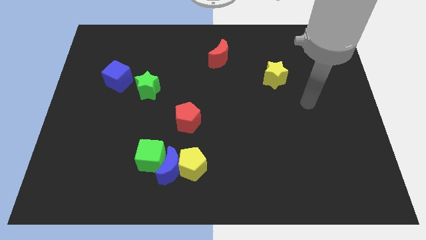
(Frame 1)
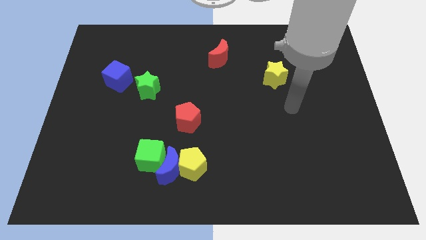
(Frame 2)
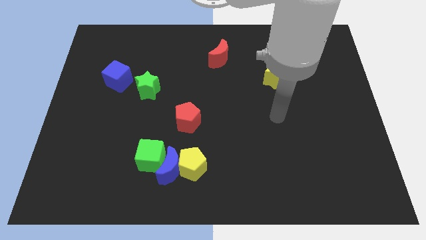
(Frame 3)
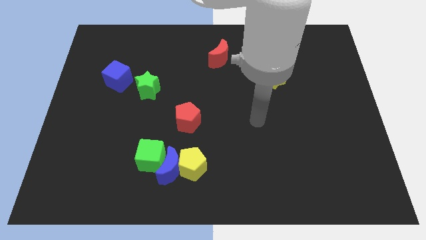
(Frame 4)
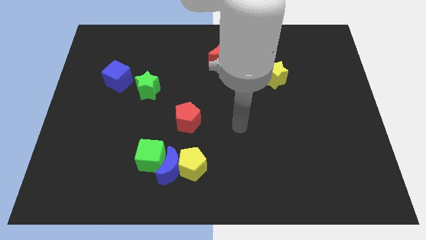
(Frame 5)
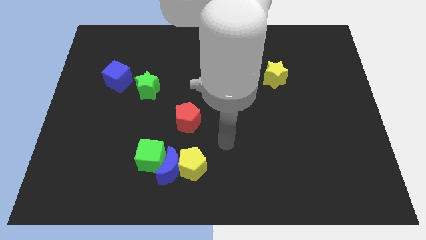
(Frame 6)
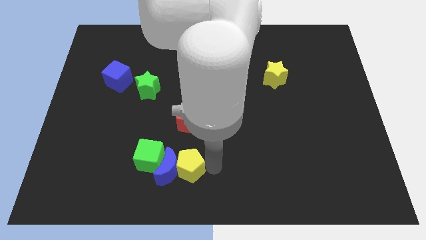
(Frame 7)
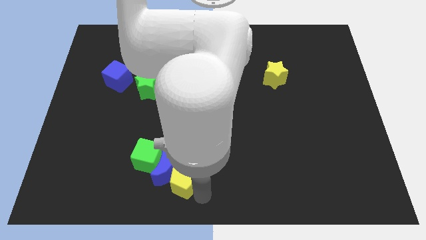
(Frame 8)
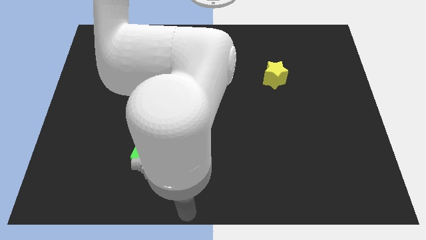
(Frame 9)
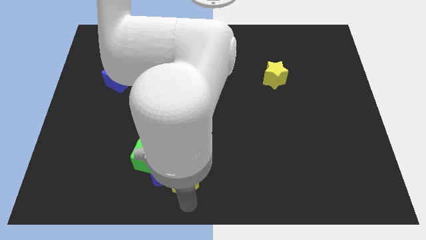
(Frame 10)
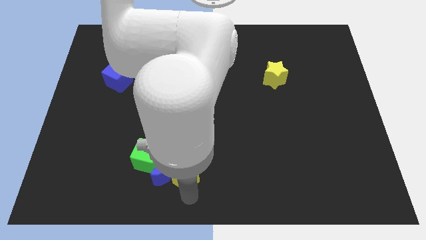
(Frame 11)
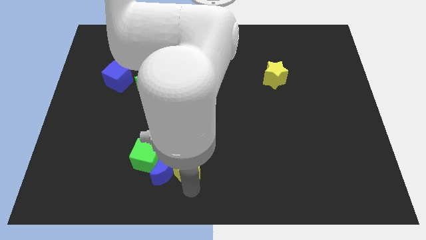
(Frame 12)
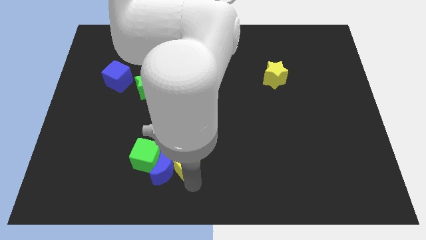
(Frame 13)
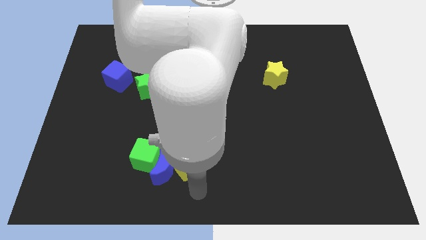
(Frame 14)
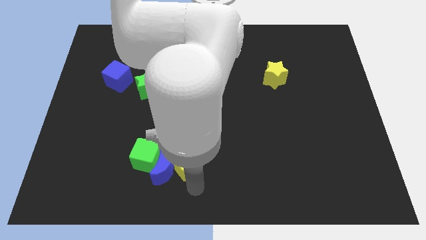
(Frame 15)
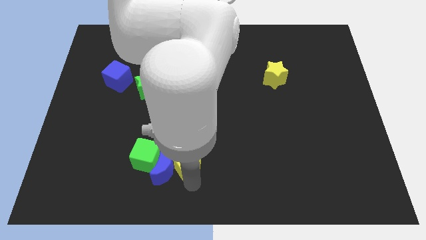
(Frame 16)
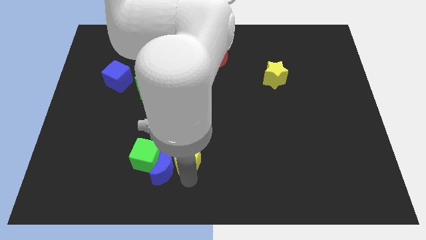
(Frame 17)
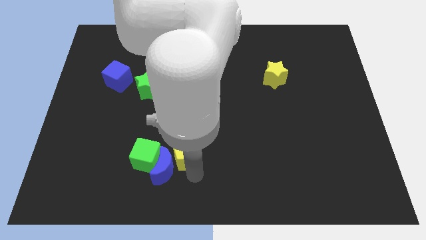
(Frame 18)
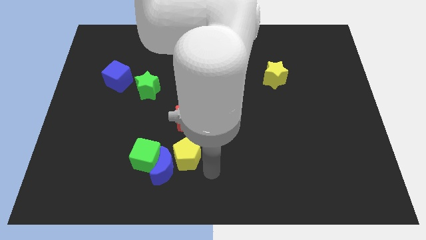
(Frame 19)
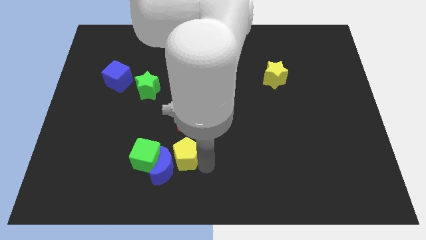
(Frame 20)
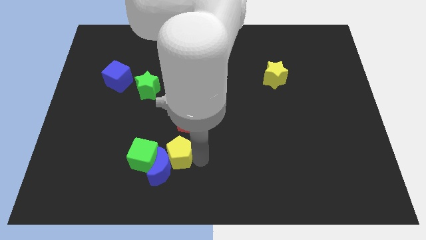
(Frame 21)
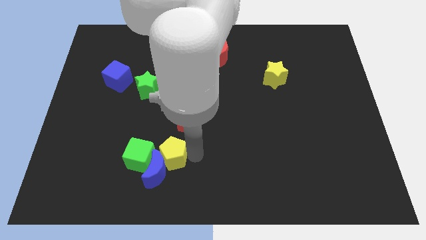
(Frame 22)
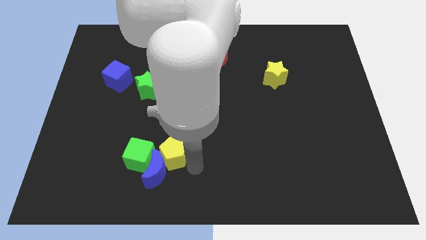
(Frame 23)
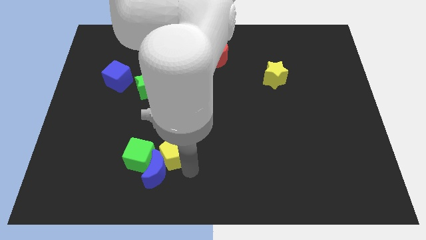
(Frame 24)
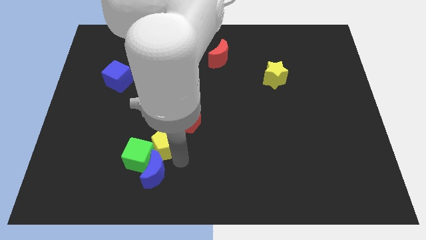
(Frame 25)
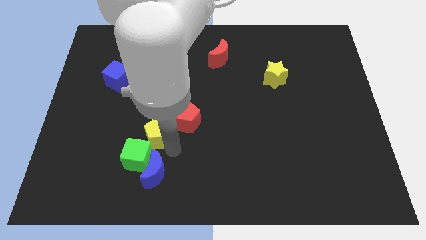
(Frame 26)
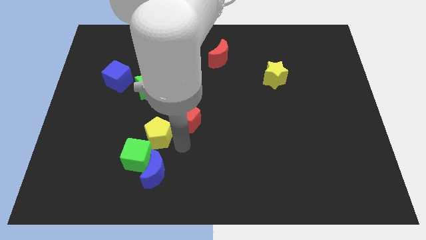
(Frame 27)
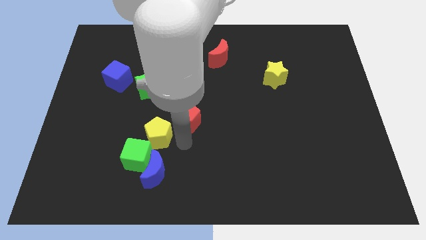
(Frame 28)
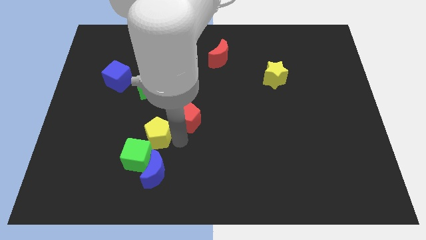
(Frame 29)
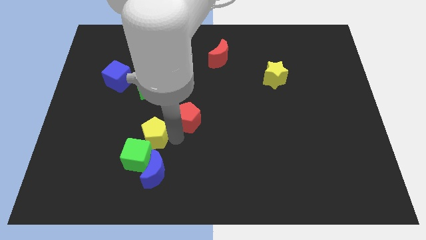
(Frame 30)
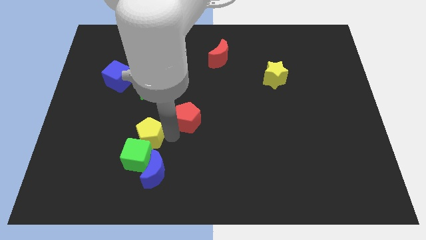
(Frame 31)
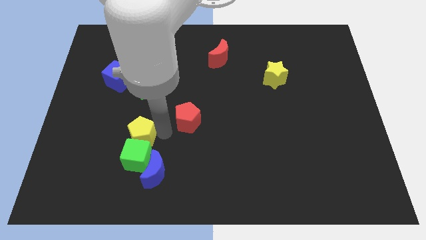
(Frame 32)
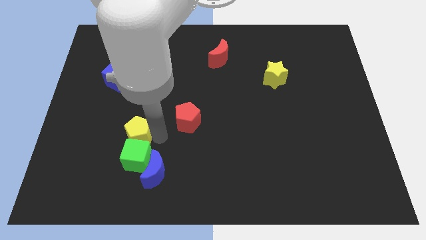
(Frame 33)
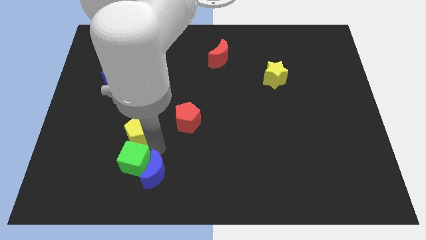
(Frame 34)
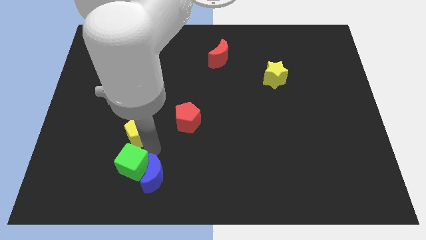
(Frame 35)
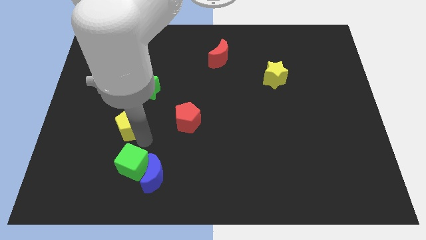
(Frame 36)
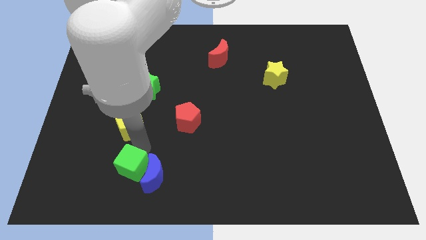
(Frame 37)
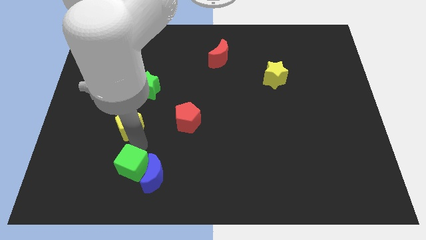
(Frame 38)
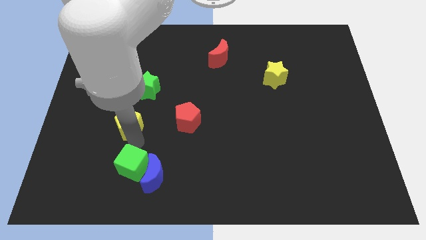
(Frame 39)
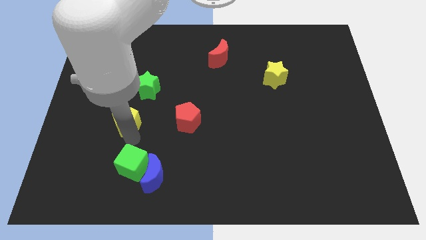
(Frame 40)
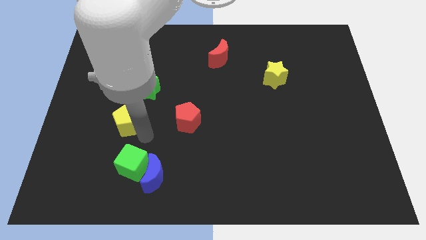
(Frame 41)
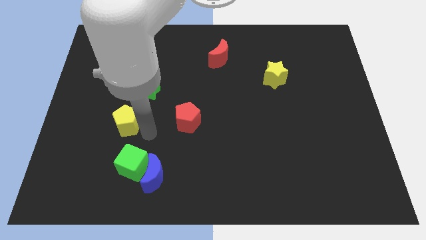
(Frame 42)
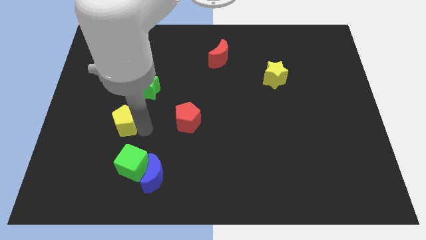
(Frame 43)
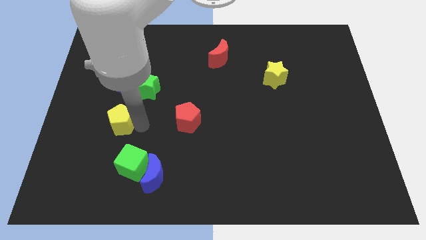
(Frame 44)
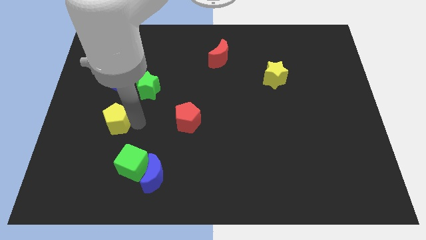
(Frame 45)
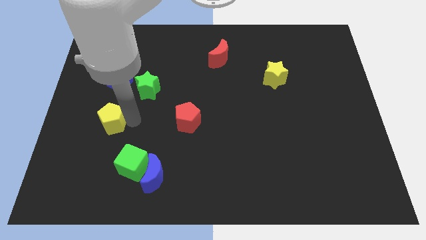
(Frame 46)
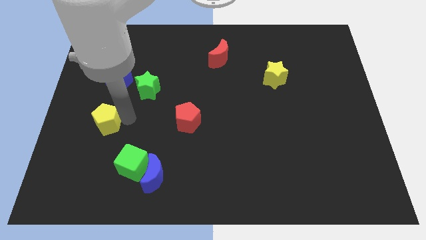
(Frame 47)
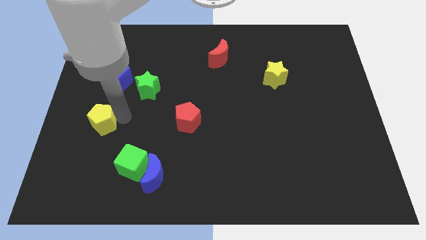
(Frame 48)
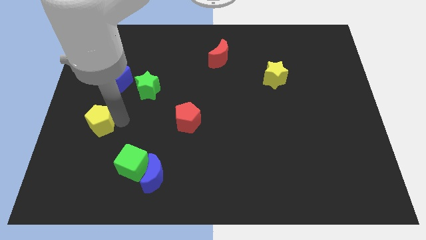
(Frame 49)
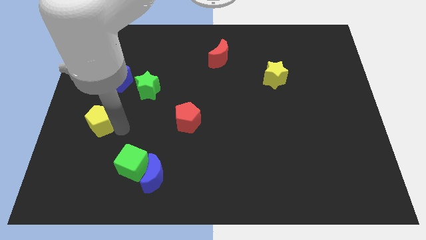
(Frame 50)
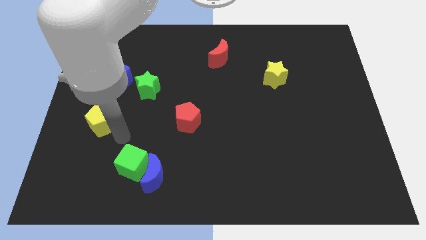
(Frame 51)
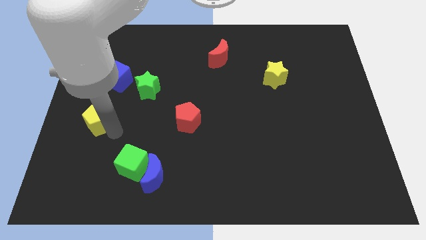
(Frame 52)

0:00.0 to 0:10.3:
put the yellow pentagon to the center left

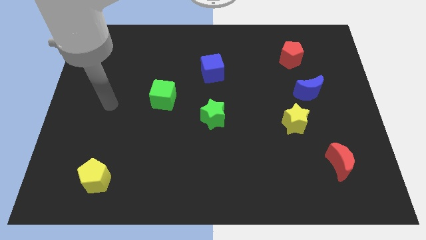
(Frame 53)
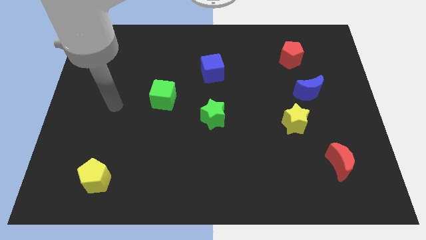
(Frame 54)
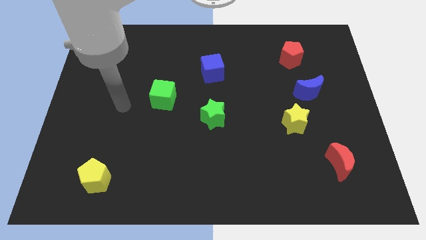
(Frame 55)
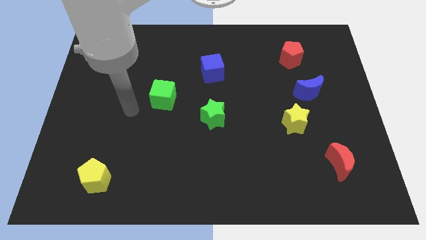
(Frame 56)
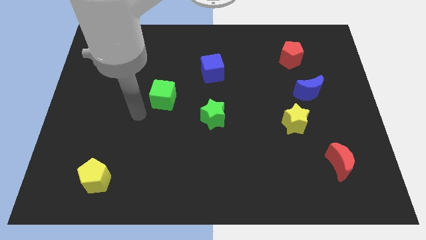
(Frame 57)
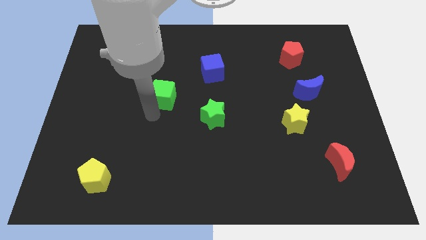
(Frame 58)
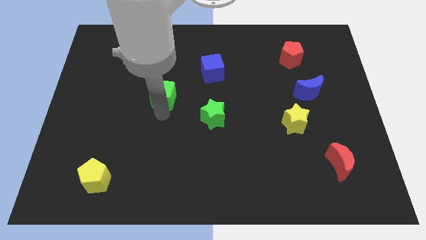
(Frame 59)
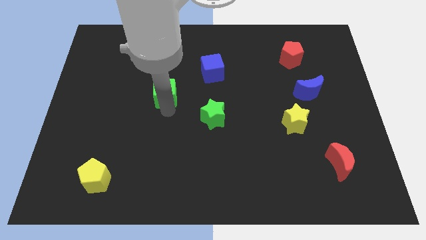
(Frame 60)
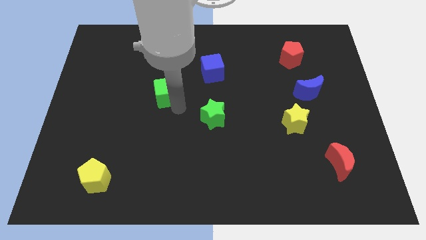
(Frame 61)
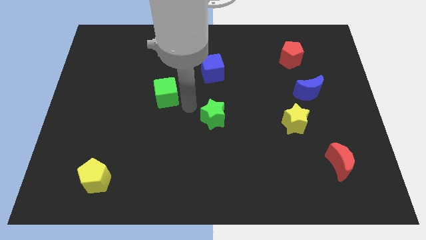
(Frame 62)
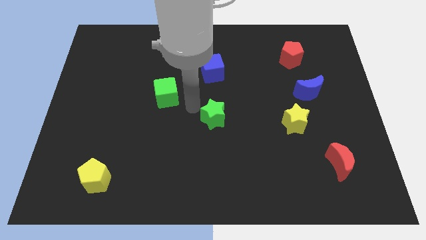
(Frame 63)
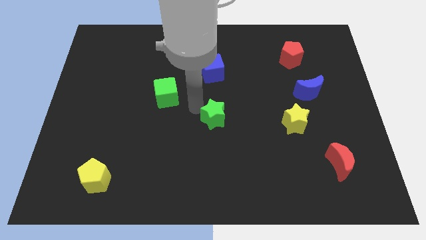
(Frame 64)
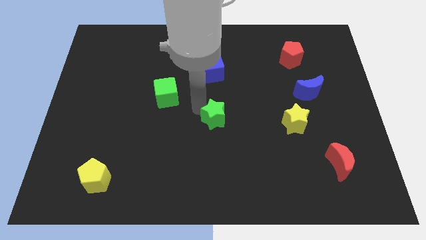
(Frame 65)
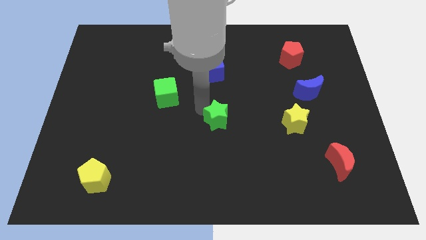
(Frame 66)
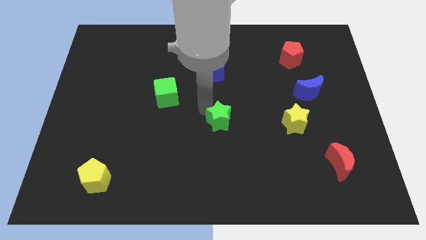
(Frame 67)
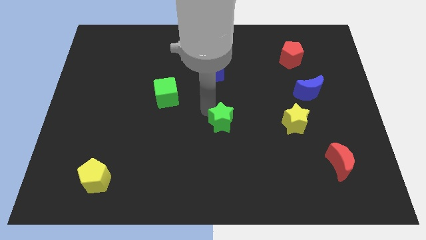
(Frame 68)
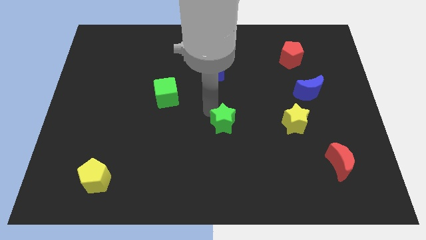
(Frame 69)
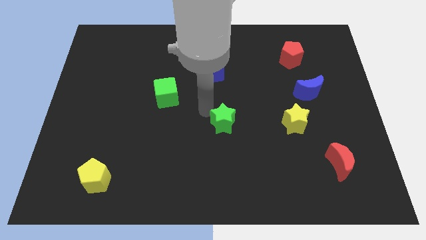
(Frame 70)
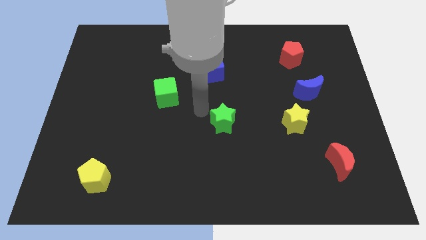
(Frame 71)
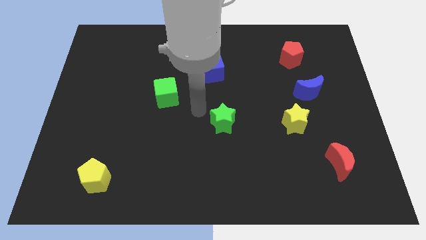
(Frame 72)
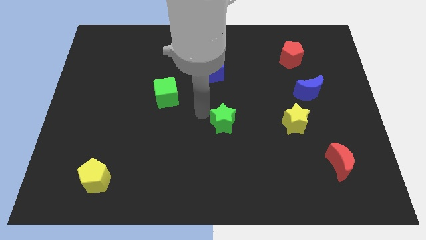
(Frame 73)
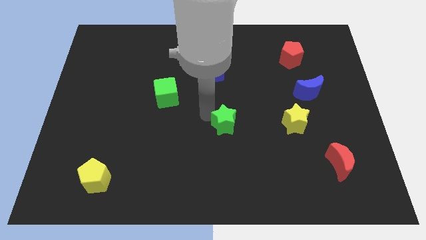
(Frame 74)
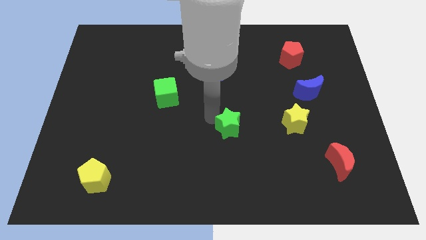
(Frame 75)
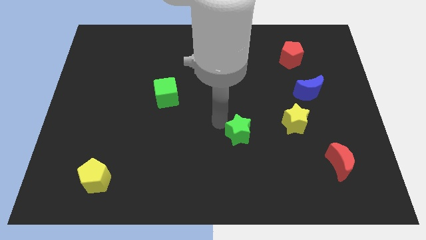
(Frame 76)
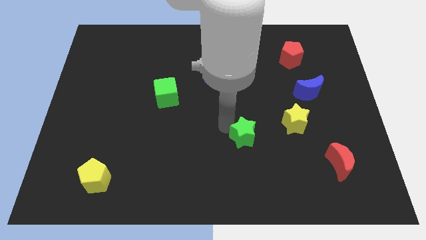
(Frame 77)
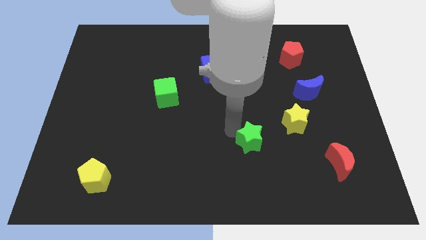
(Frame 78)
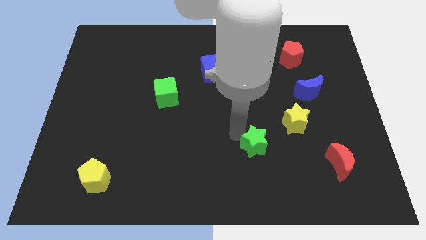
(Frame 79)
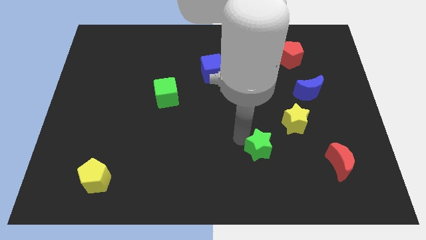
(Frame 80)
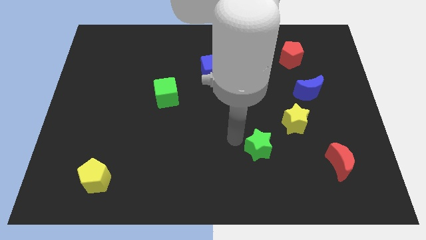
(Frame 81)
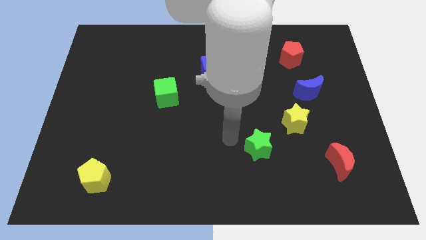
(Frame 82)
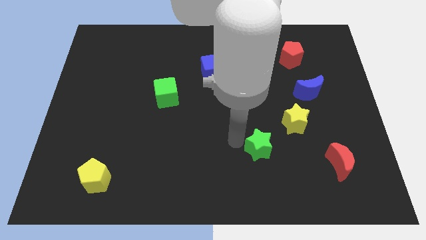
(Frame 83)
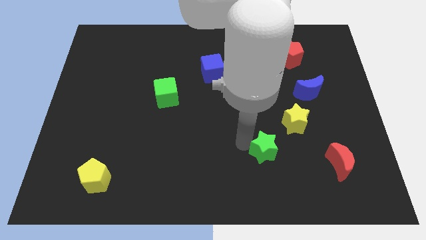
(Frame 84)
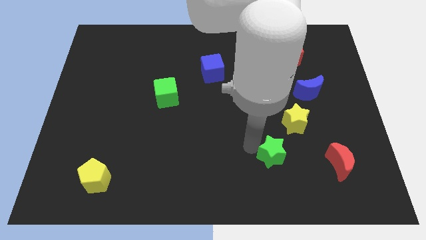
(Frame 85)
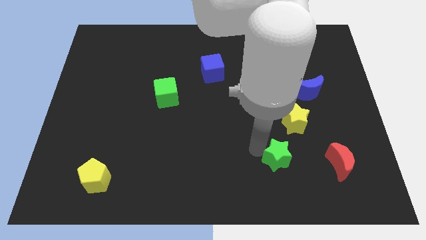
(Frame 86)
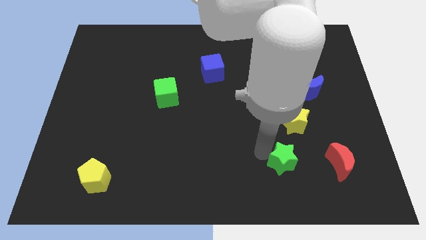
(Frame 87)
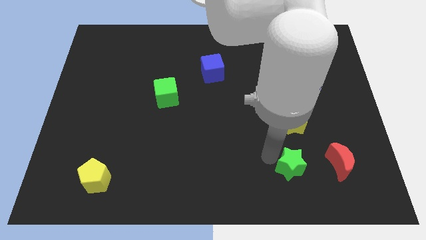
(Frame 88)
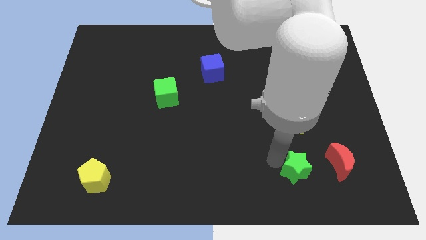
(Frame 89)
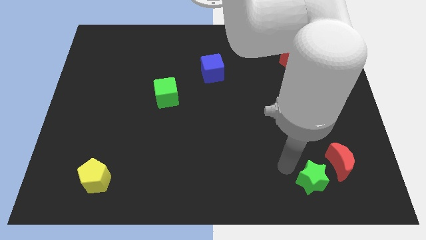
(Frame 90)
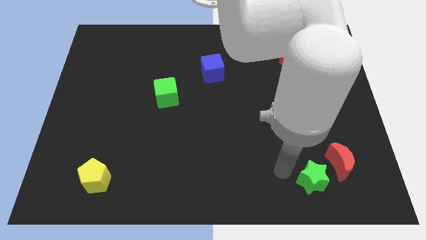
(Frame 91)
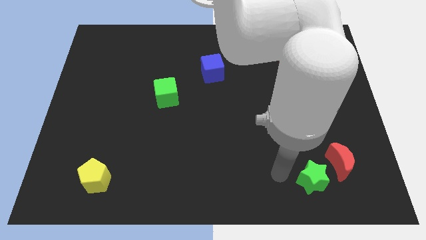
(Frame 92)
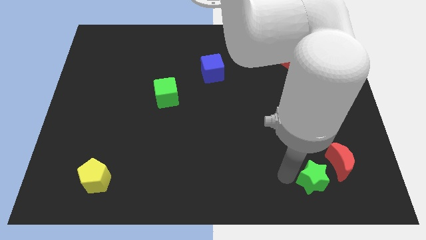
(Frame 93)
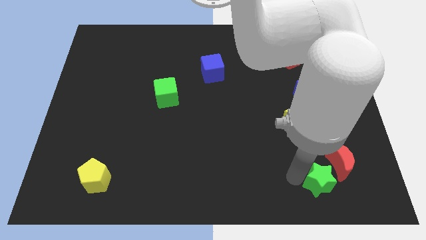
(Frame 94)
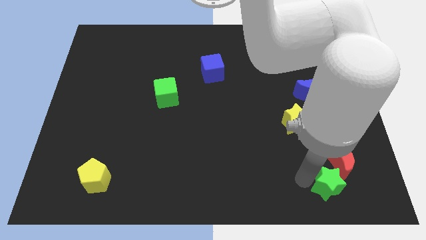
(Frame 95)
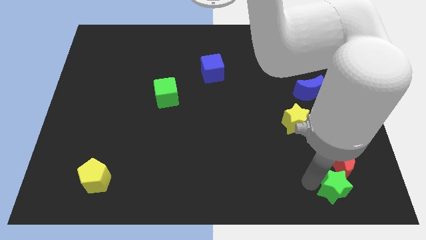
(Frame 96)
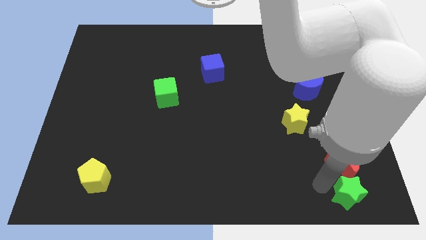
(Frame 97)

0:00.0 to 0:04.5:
put the green star to the bottom right corner
